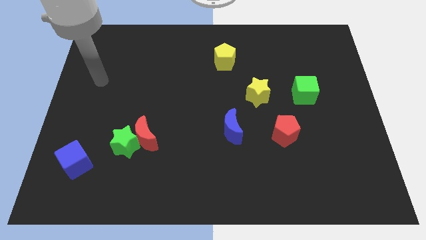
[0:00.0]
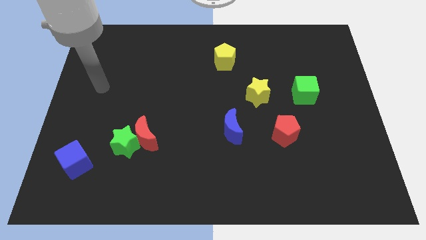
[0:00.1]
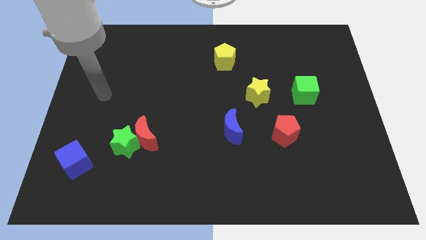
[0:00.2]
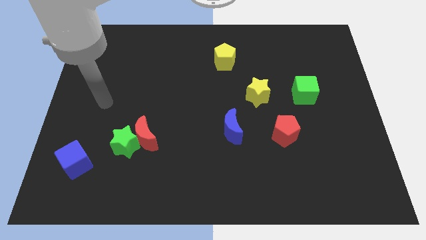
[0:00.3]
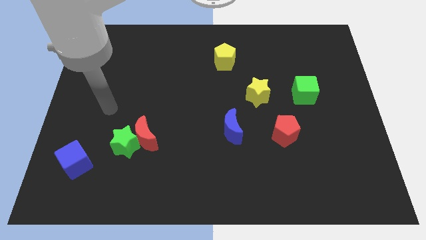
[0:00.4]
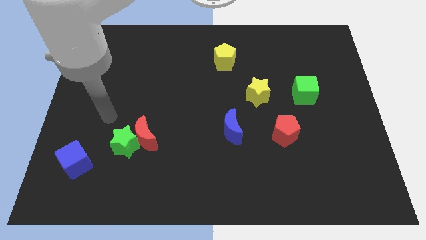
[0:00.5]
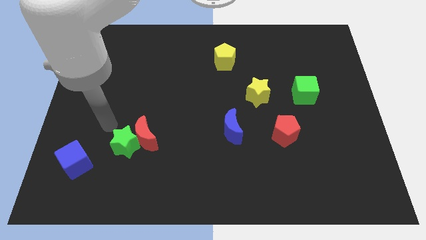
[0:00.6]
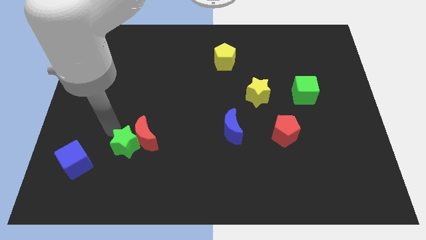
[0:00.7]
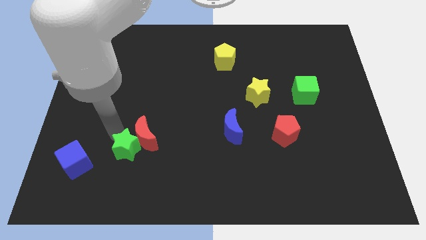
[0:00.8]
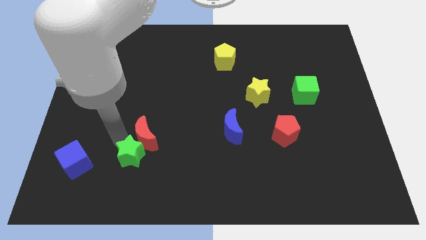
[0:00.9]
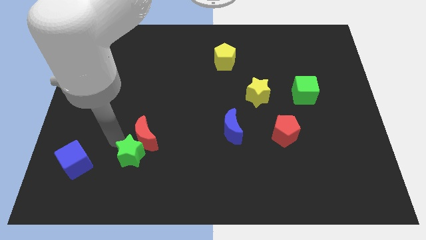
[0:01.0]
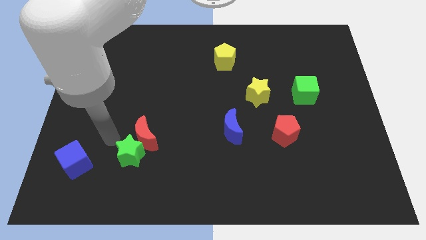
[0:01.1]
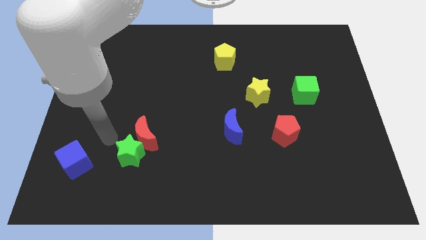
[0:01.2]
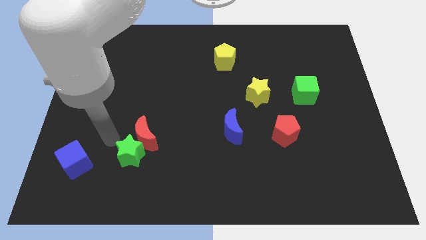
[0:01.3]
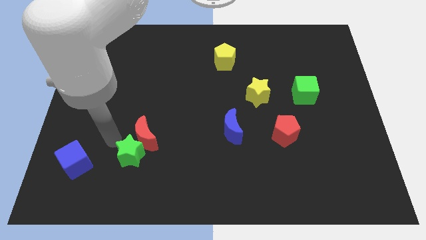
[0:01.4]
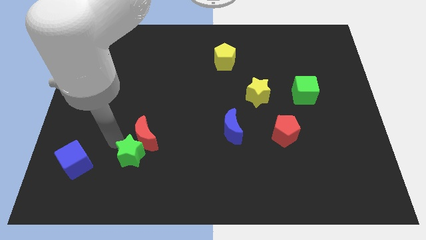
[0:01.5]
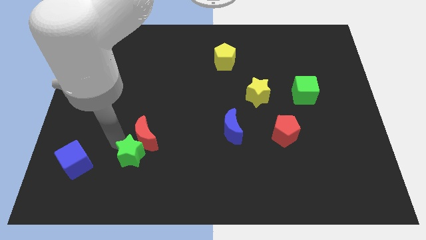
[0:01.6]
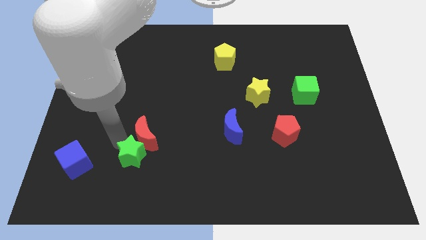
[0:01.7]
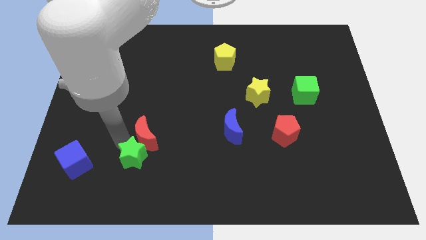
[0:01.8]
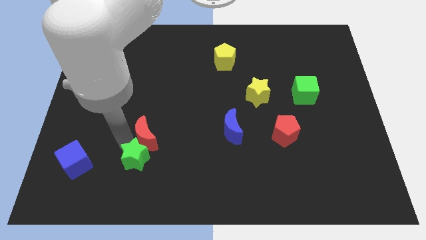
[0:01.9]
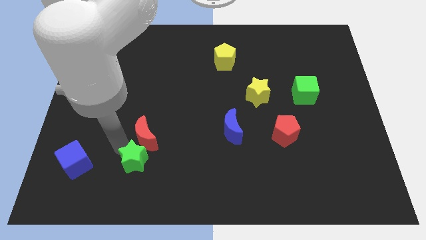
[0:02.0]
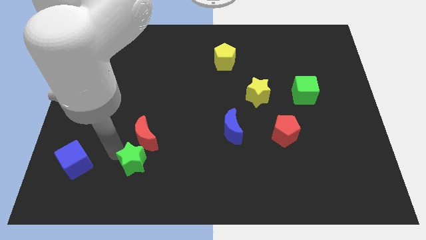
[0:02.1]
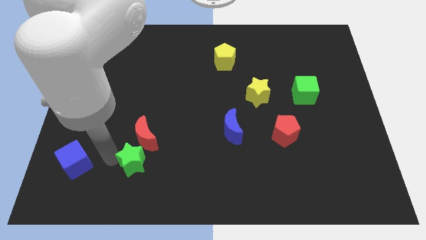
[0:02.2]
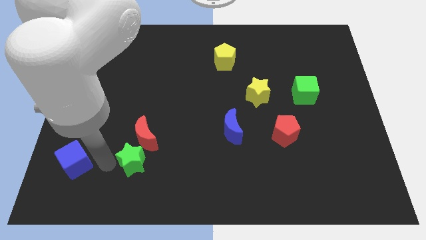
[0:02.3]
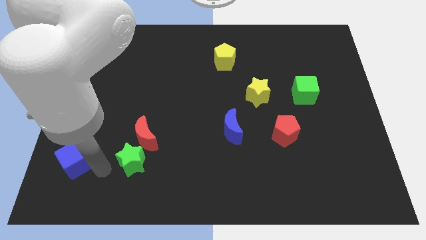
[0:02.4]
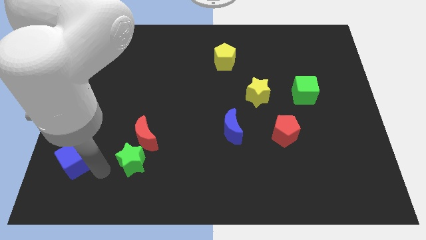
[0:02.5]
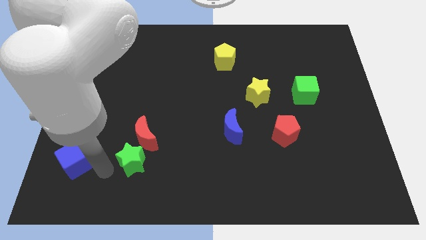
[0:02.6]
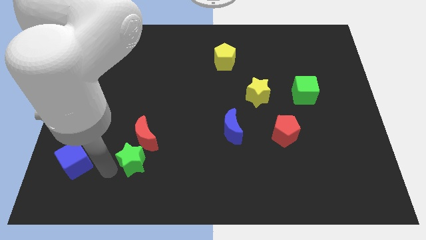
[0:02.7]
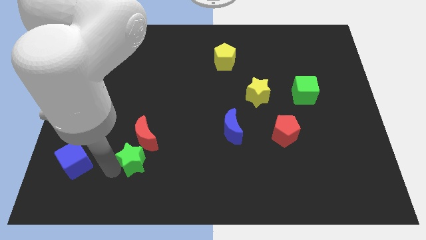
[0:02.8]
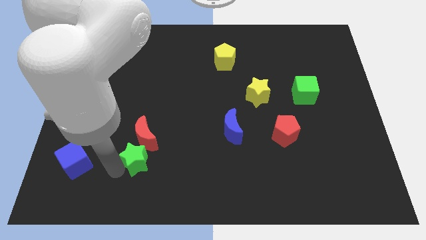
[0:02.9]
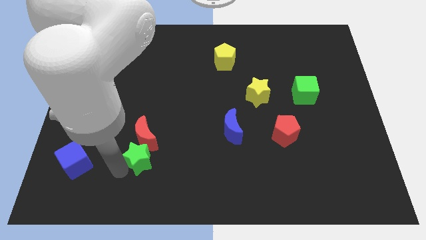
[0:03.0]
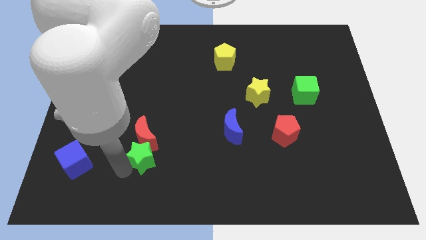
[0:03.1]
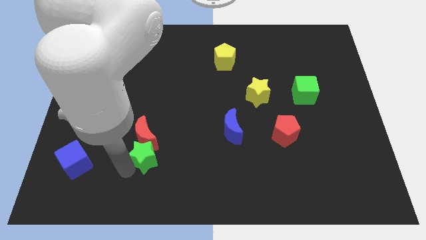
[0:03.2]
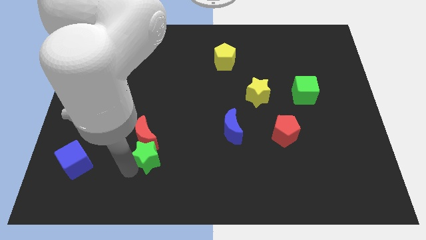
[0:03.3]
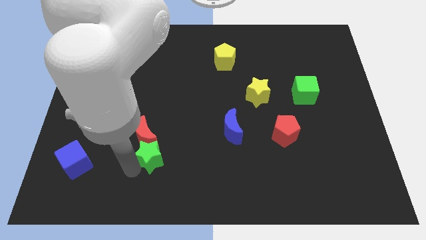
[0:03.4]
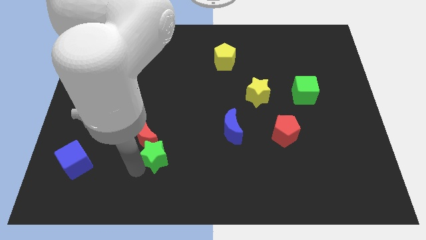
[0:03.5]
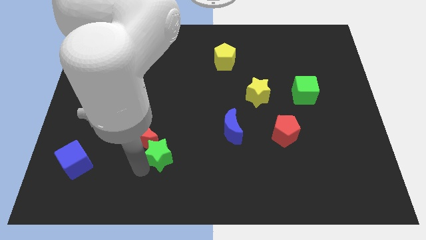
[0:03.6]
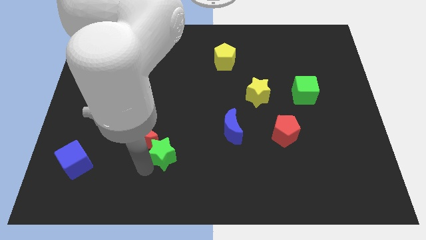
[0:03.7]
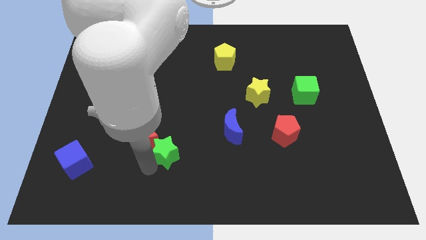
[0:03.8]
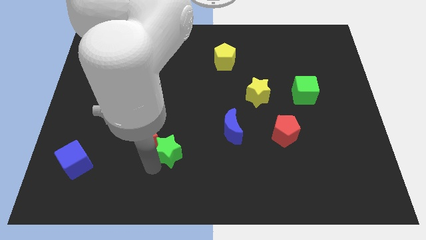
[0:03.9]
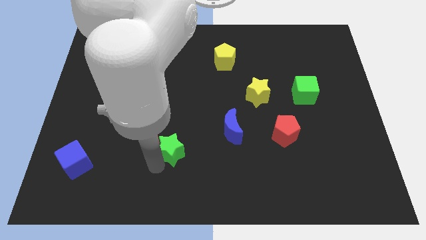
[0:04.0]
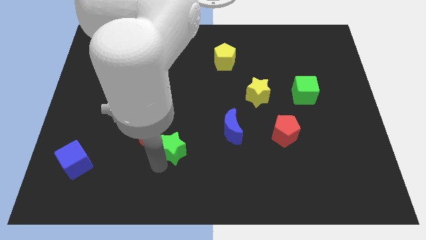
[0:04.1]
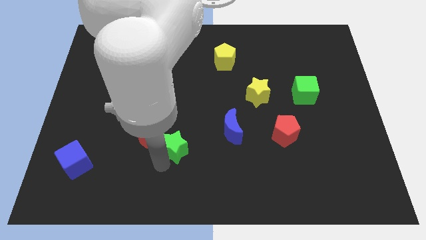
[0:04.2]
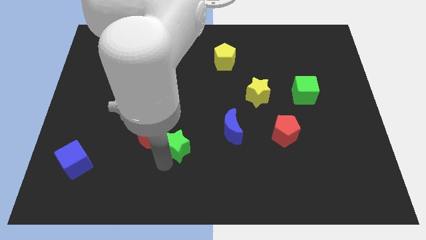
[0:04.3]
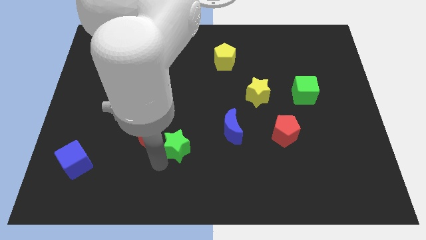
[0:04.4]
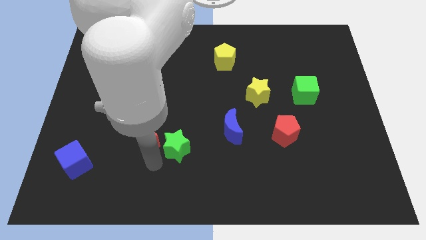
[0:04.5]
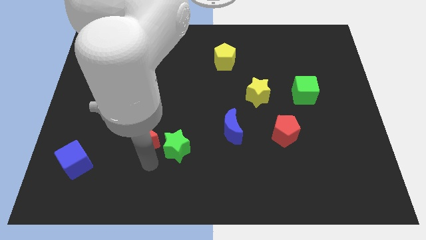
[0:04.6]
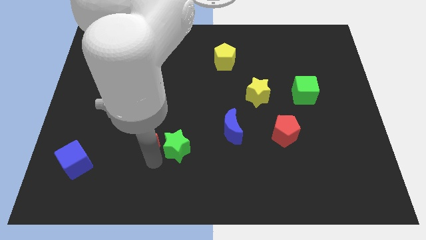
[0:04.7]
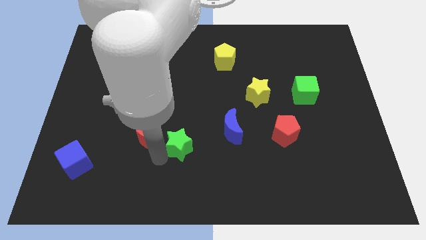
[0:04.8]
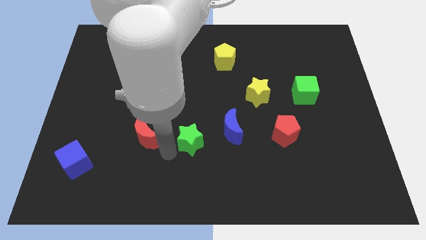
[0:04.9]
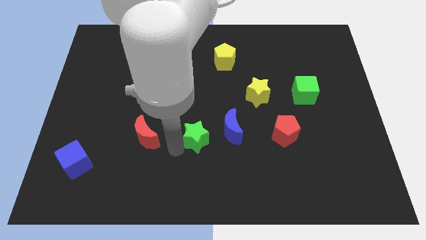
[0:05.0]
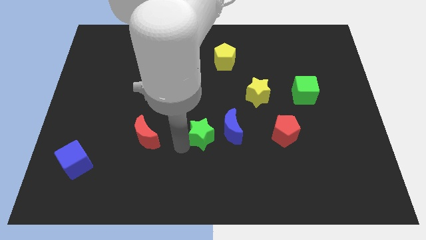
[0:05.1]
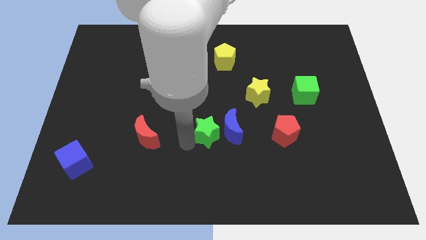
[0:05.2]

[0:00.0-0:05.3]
move the green star close to the blue moon

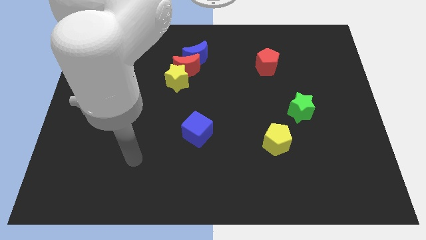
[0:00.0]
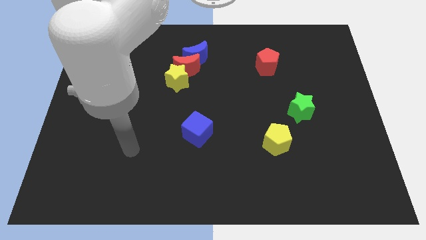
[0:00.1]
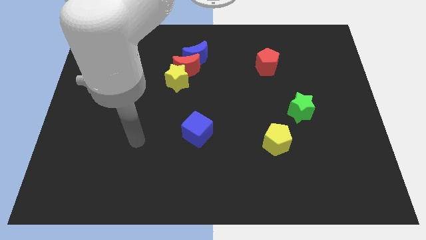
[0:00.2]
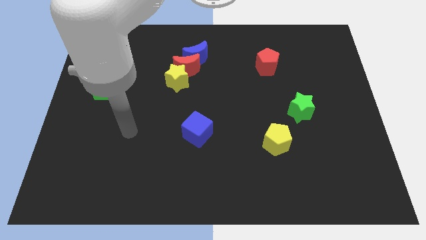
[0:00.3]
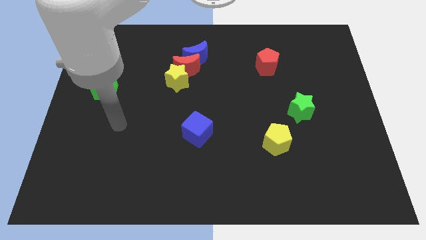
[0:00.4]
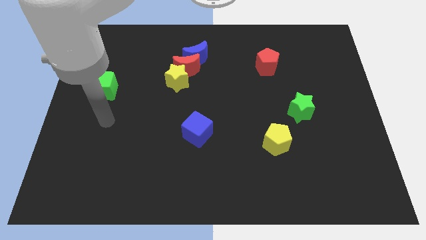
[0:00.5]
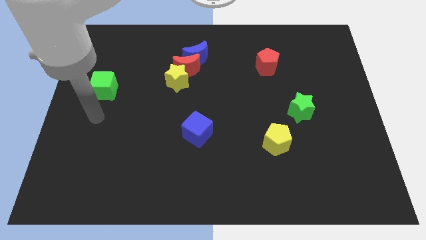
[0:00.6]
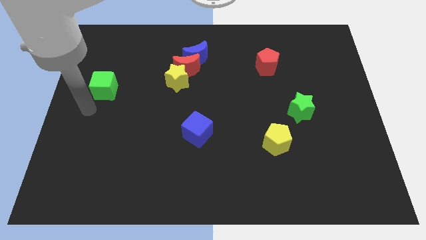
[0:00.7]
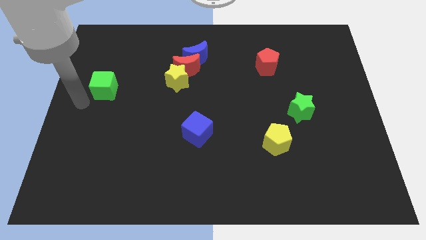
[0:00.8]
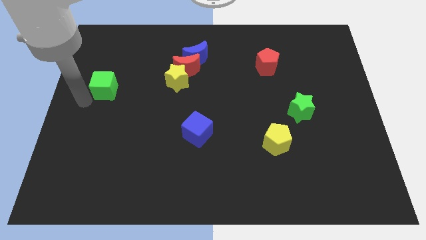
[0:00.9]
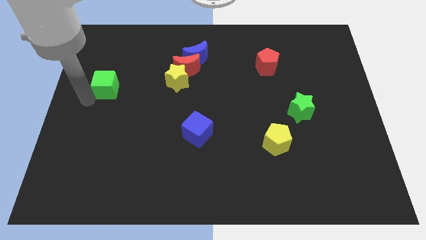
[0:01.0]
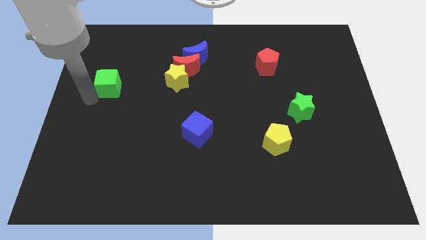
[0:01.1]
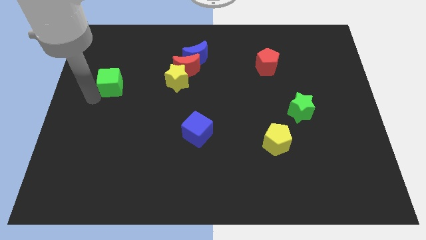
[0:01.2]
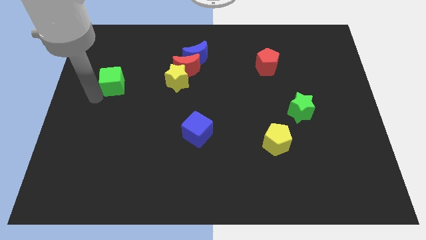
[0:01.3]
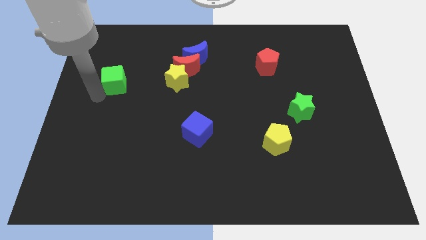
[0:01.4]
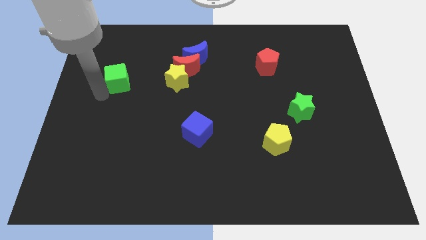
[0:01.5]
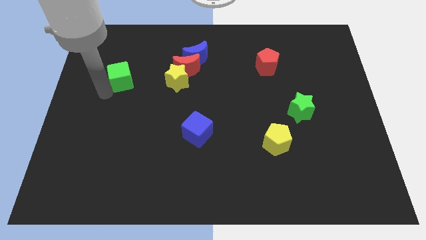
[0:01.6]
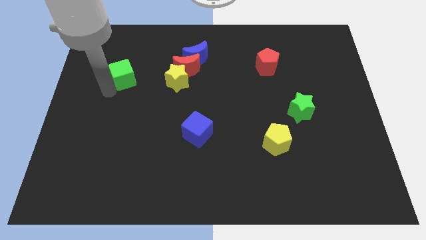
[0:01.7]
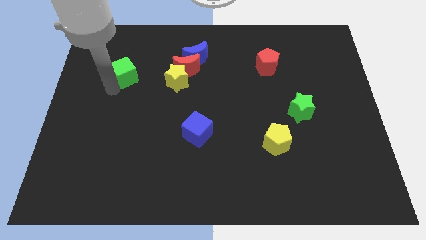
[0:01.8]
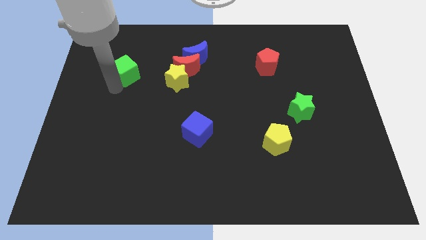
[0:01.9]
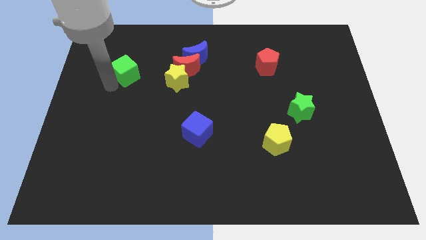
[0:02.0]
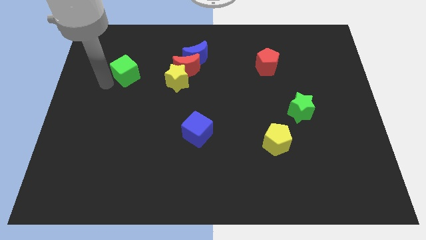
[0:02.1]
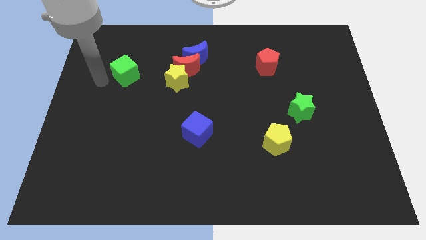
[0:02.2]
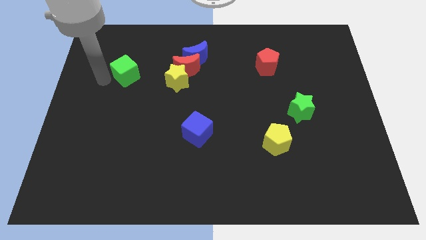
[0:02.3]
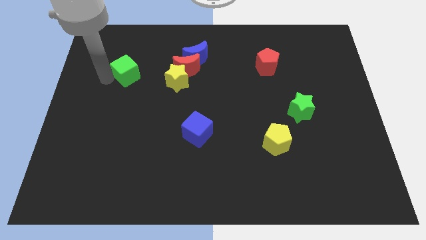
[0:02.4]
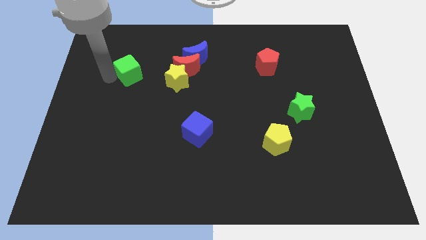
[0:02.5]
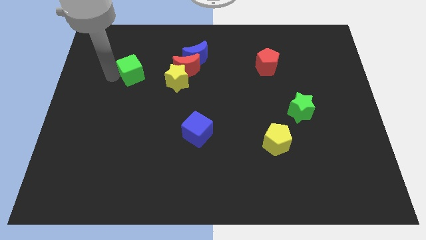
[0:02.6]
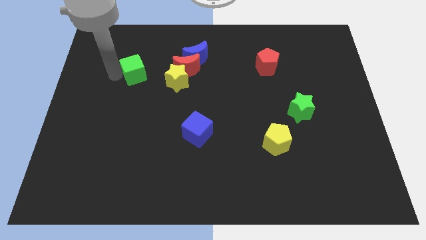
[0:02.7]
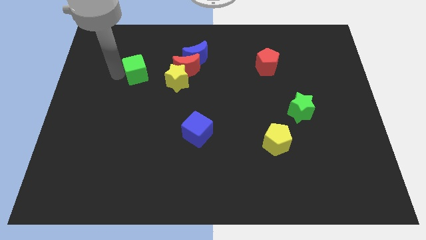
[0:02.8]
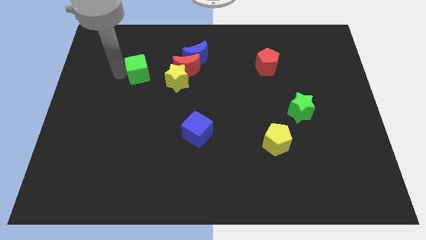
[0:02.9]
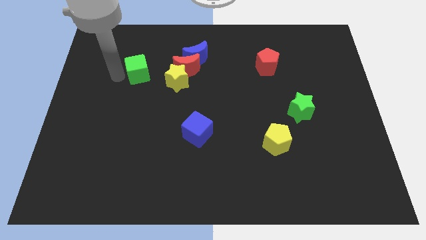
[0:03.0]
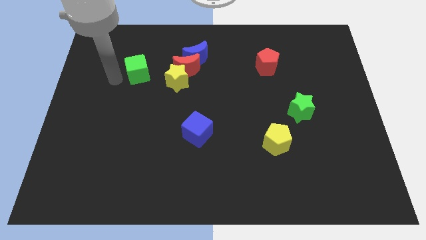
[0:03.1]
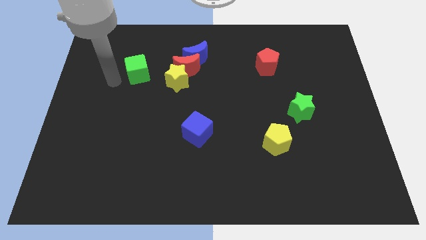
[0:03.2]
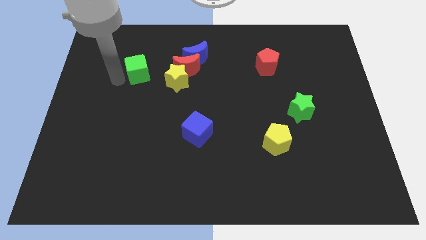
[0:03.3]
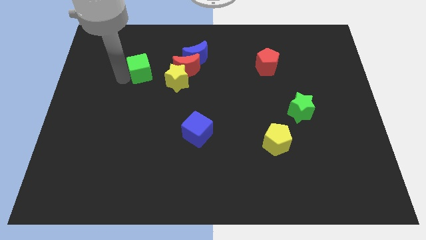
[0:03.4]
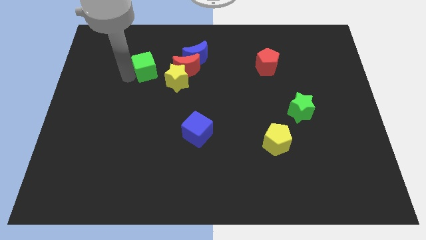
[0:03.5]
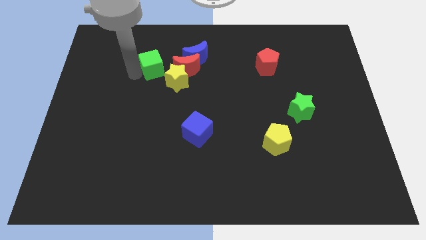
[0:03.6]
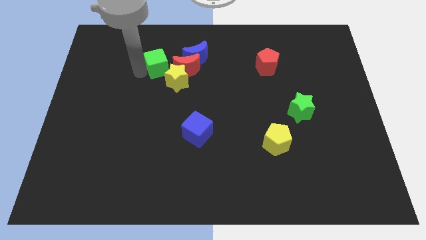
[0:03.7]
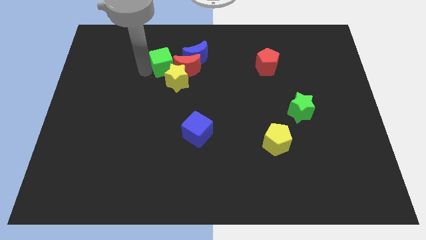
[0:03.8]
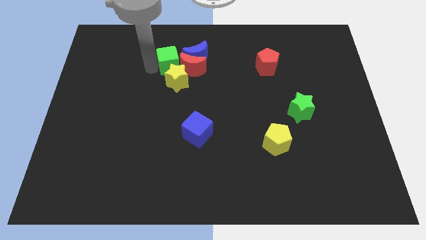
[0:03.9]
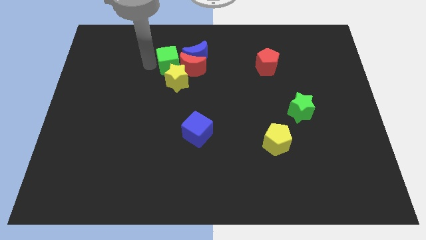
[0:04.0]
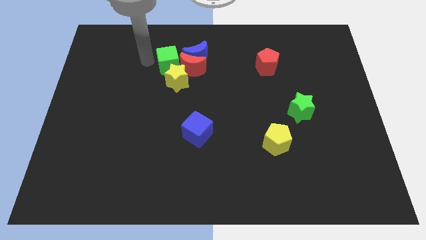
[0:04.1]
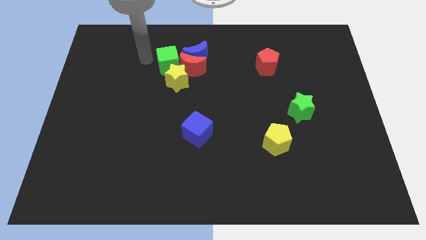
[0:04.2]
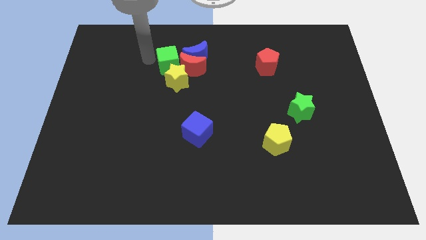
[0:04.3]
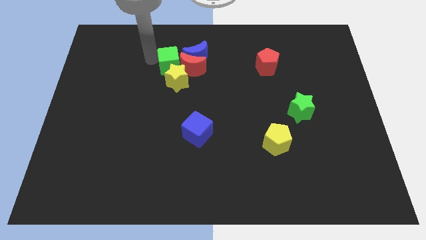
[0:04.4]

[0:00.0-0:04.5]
move the green cube close to the red moon
